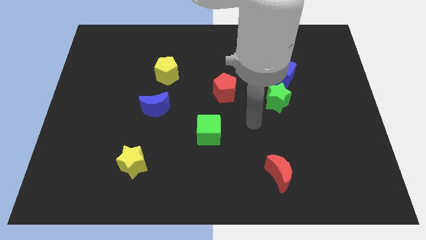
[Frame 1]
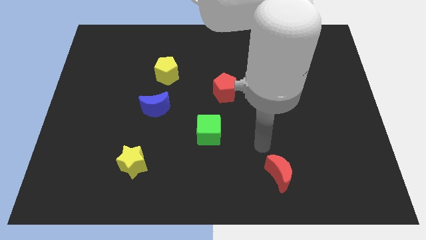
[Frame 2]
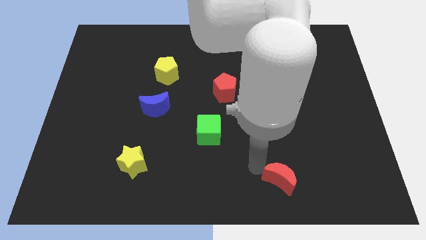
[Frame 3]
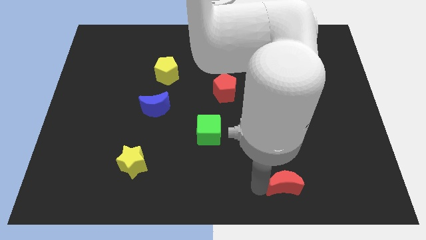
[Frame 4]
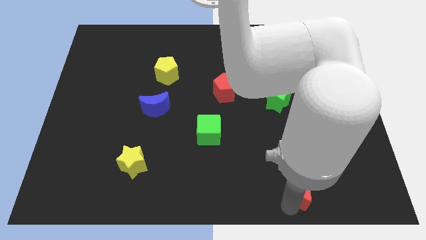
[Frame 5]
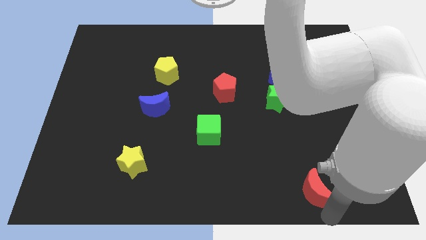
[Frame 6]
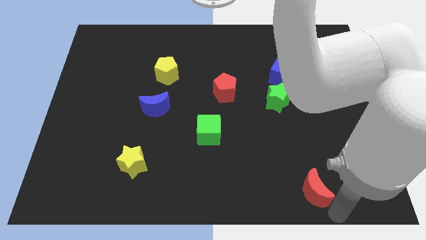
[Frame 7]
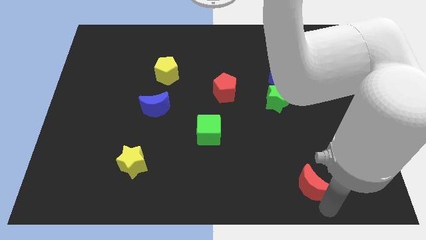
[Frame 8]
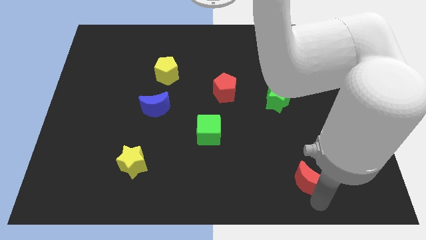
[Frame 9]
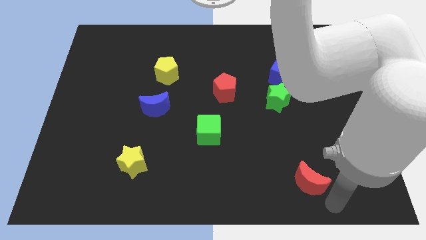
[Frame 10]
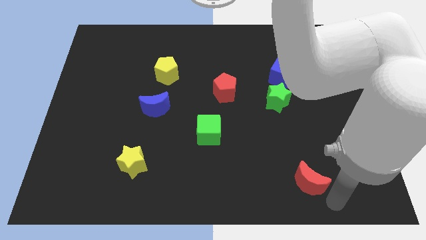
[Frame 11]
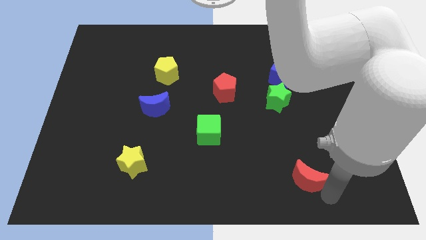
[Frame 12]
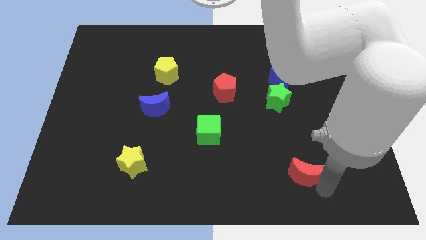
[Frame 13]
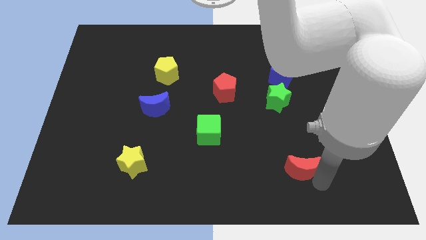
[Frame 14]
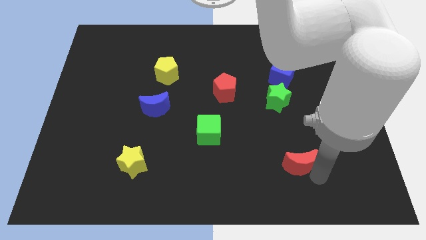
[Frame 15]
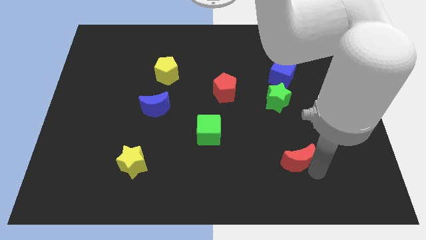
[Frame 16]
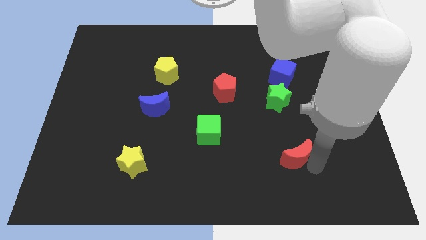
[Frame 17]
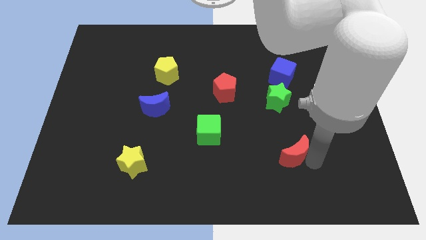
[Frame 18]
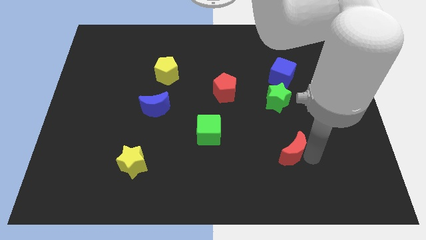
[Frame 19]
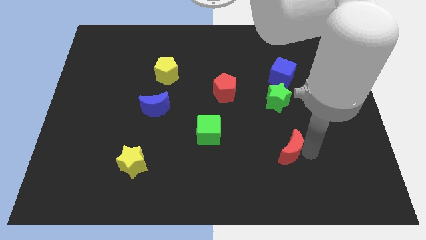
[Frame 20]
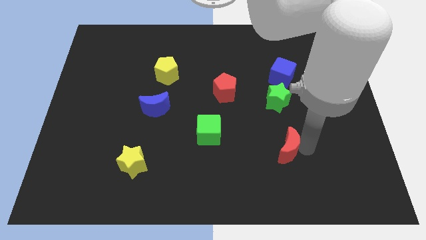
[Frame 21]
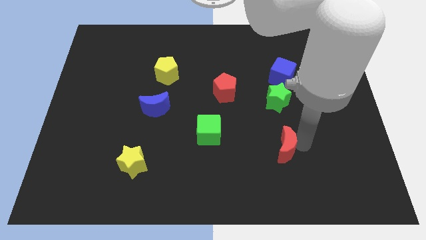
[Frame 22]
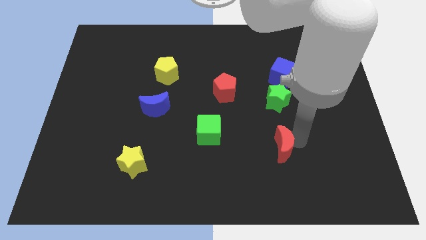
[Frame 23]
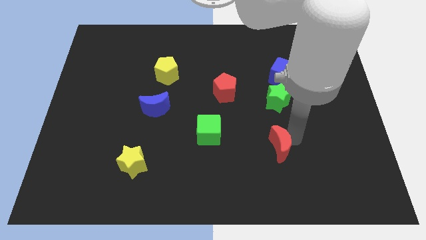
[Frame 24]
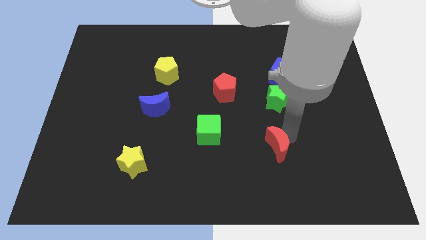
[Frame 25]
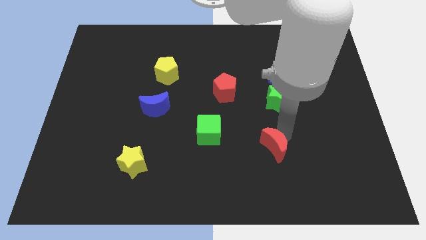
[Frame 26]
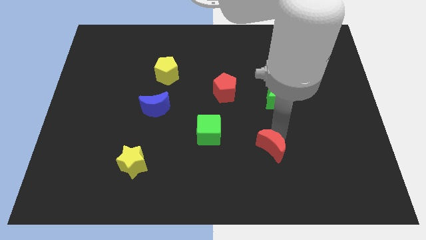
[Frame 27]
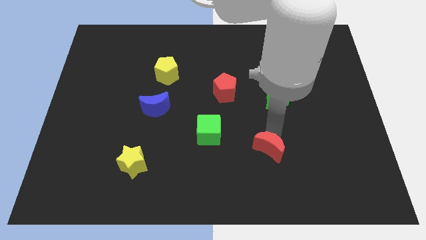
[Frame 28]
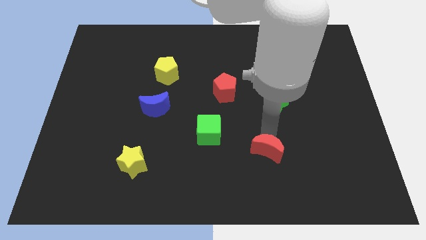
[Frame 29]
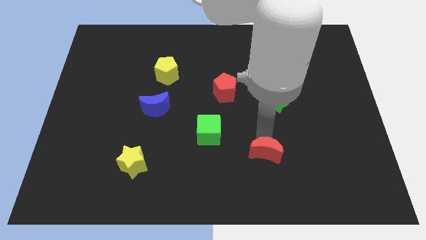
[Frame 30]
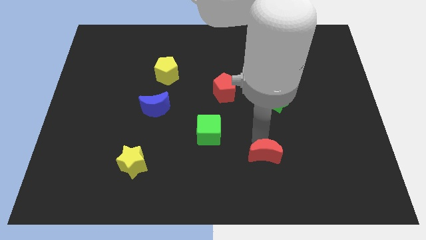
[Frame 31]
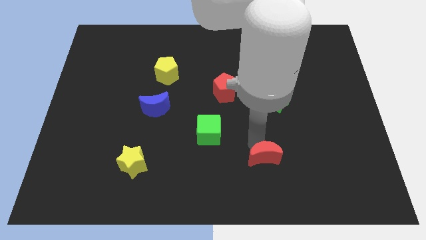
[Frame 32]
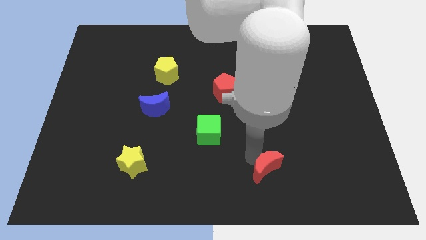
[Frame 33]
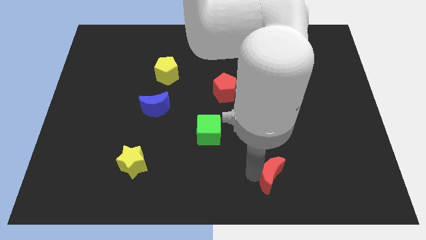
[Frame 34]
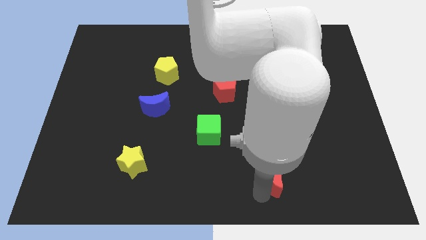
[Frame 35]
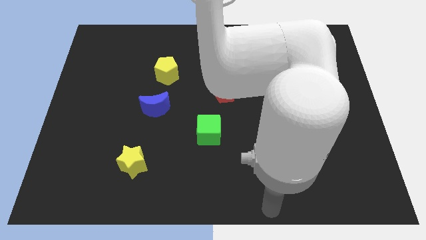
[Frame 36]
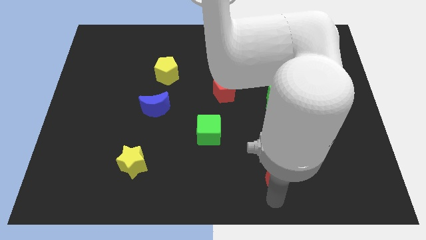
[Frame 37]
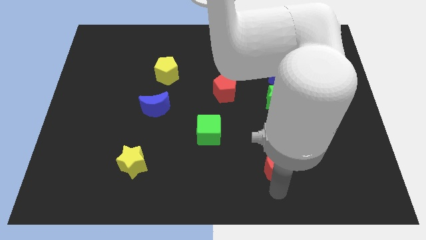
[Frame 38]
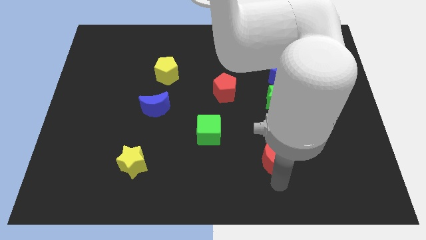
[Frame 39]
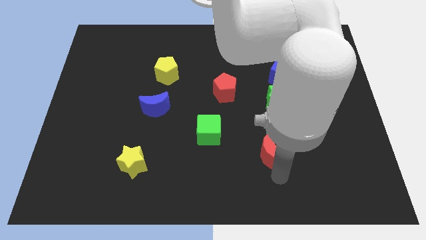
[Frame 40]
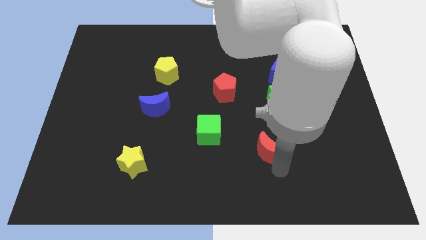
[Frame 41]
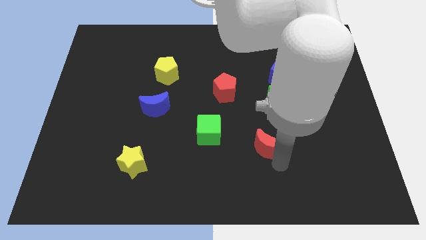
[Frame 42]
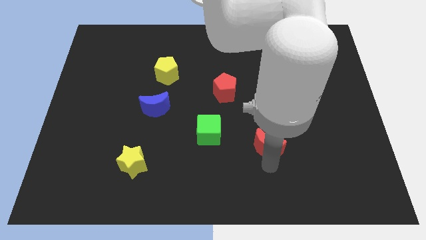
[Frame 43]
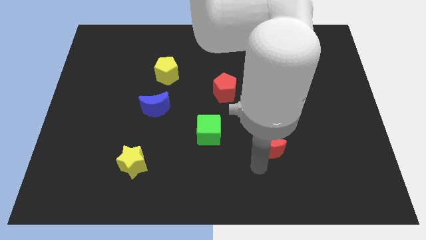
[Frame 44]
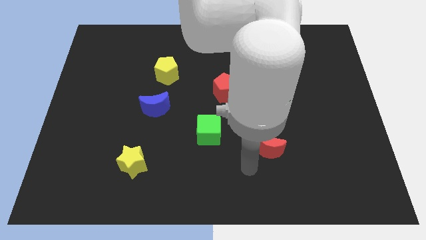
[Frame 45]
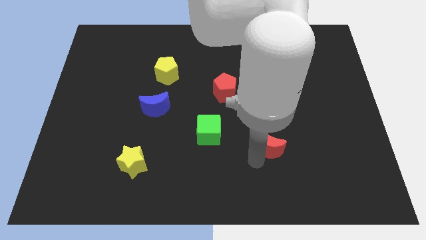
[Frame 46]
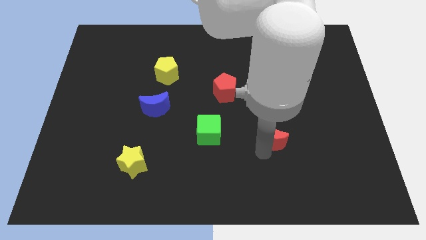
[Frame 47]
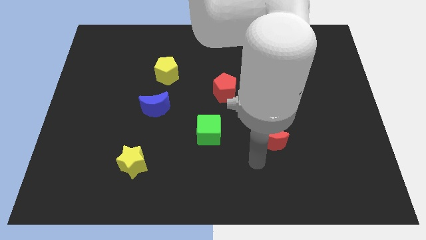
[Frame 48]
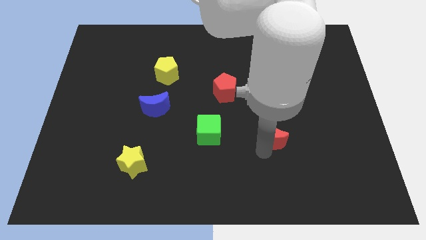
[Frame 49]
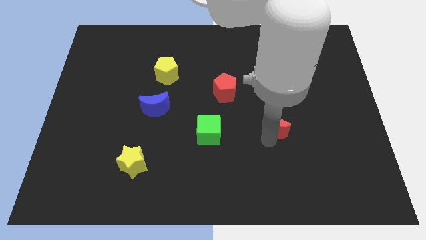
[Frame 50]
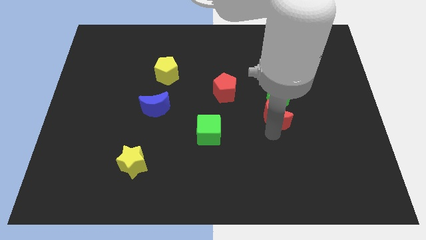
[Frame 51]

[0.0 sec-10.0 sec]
put the red moon to the green star

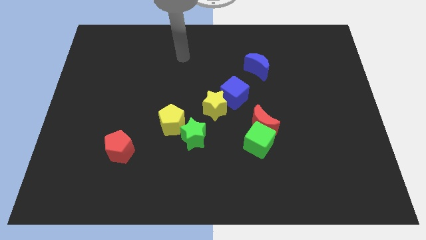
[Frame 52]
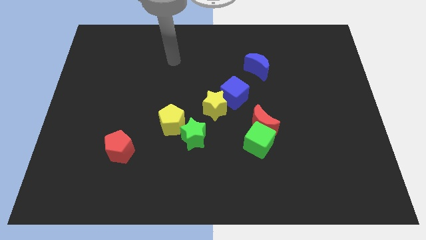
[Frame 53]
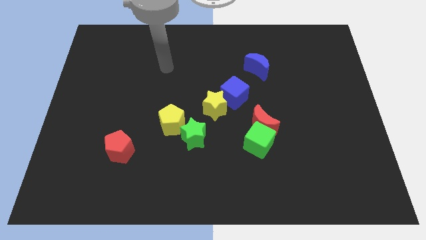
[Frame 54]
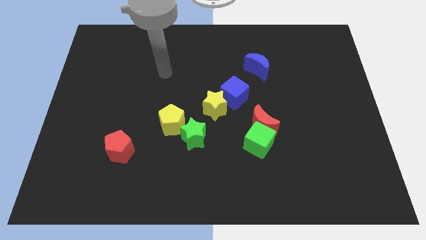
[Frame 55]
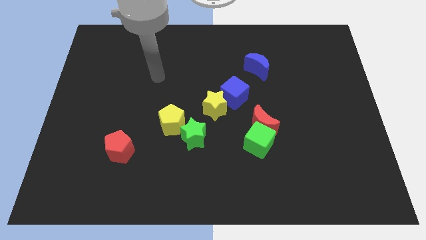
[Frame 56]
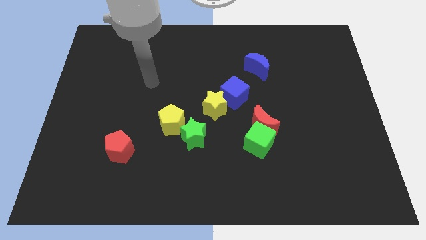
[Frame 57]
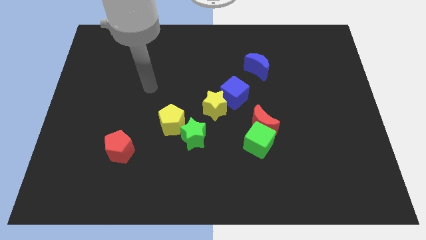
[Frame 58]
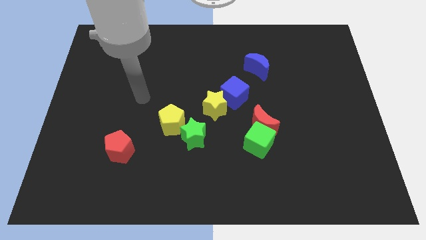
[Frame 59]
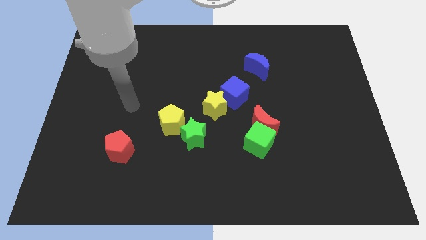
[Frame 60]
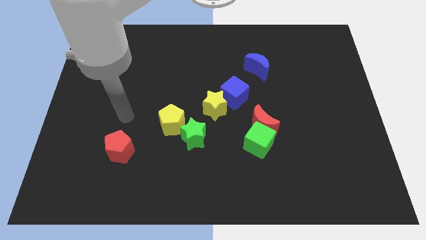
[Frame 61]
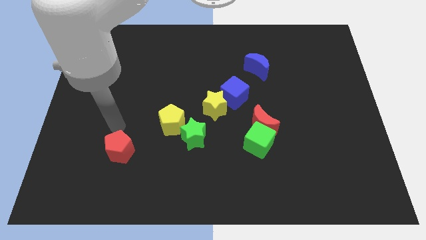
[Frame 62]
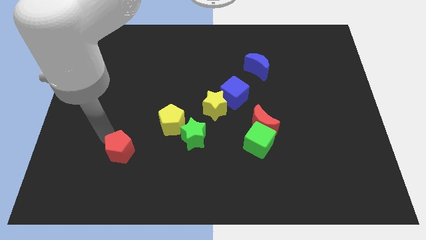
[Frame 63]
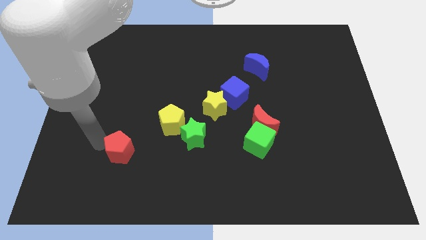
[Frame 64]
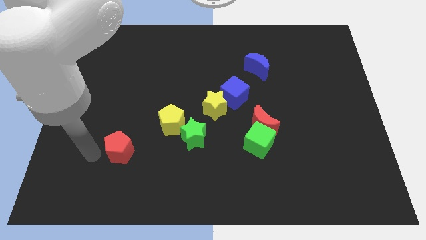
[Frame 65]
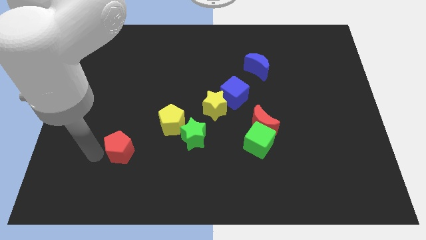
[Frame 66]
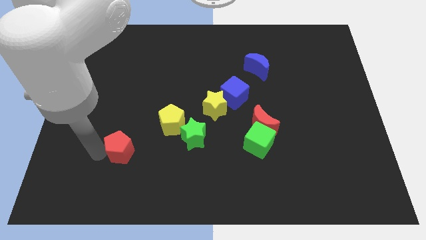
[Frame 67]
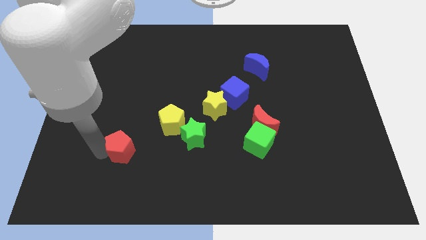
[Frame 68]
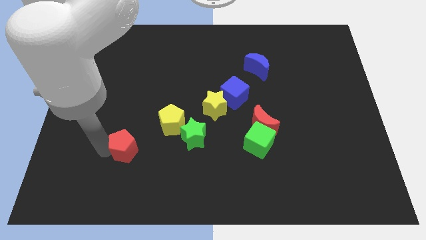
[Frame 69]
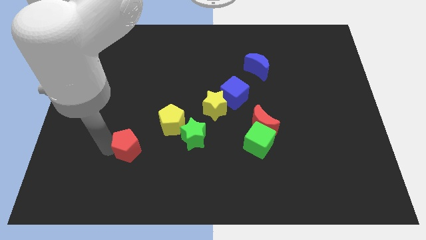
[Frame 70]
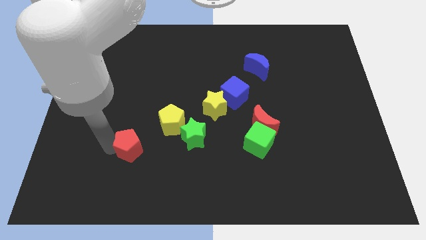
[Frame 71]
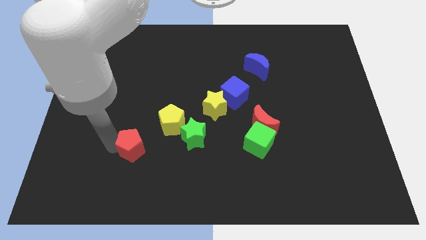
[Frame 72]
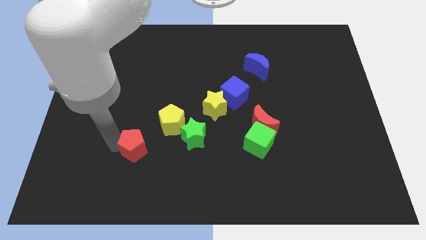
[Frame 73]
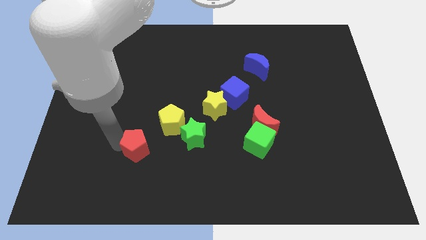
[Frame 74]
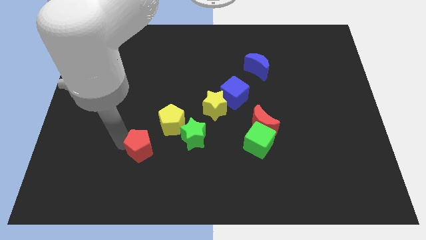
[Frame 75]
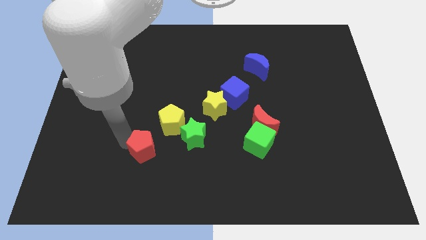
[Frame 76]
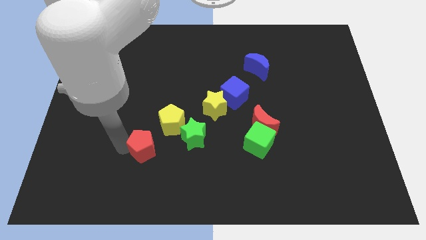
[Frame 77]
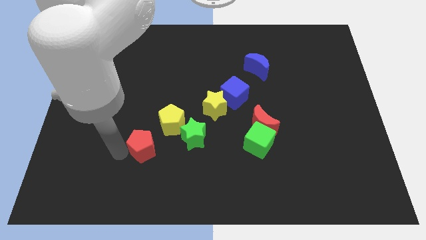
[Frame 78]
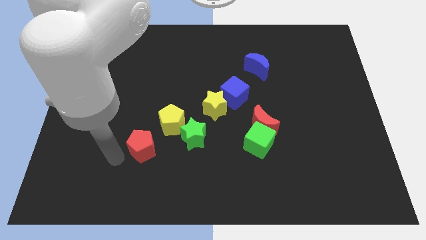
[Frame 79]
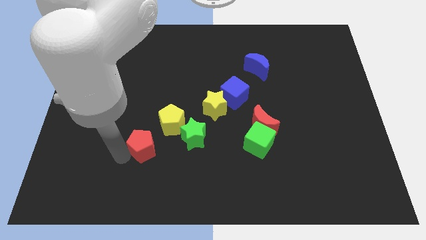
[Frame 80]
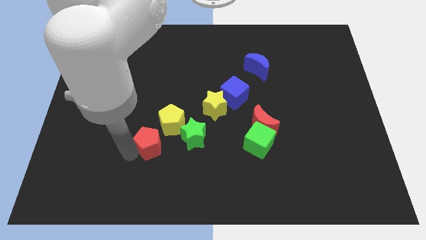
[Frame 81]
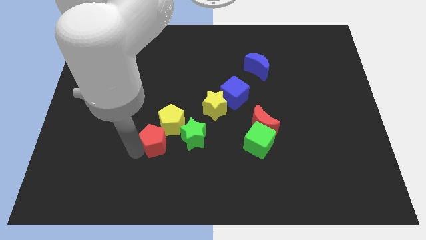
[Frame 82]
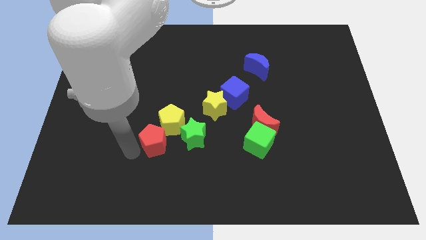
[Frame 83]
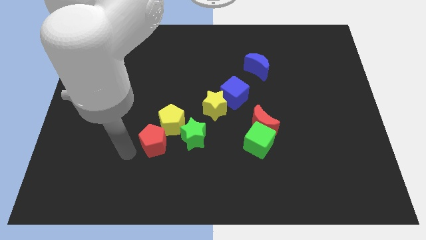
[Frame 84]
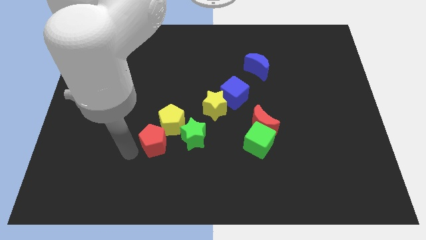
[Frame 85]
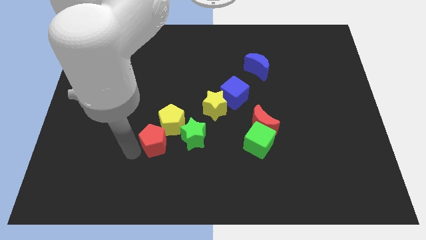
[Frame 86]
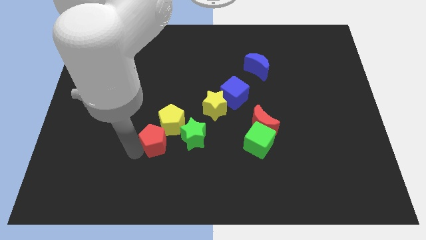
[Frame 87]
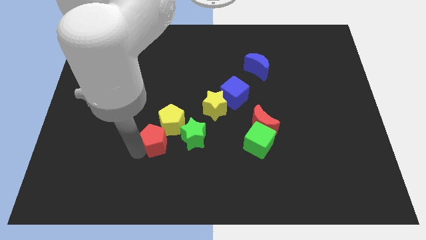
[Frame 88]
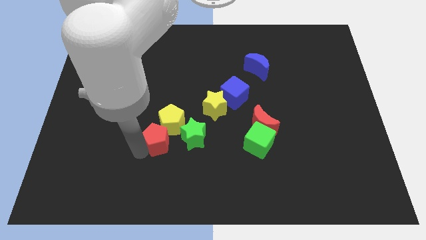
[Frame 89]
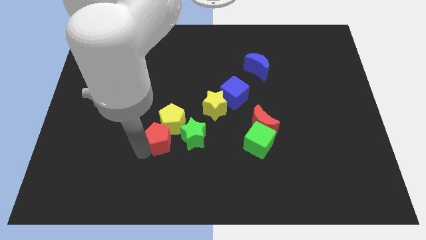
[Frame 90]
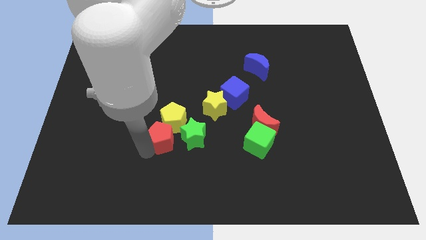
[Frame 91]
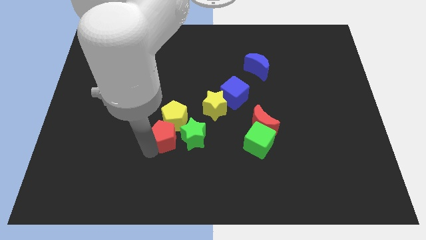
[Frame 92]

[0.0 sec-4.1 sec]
push the red pentagon next to the green star
